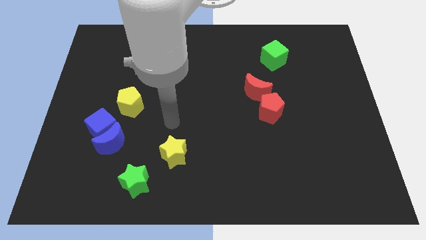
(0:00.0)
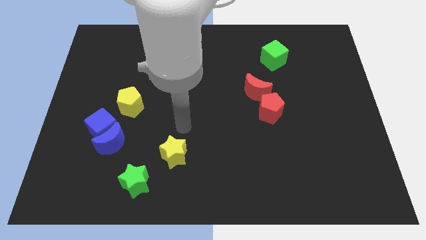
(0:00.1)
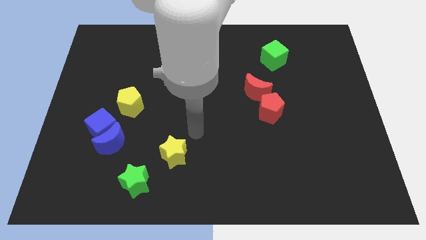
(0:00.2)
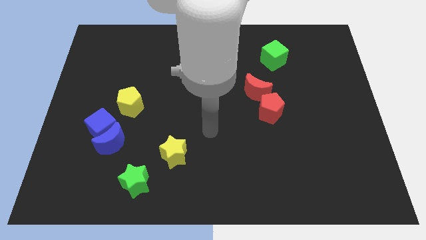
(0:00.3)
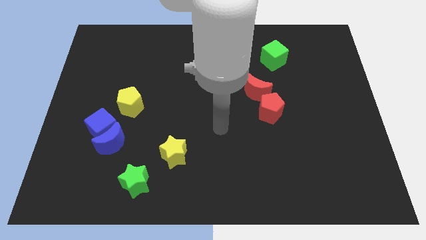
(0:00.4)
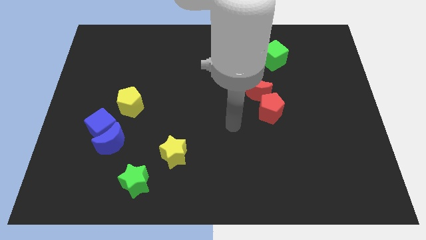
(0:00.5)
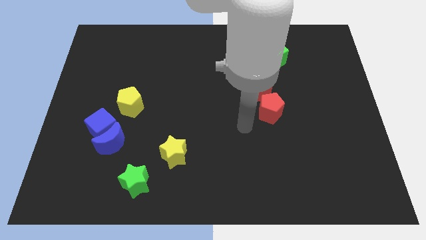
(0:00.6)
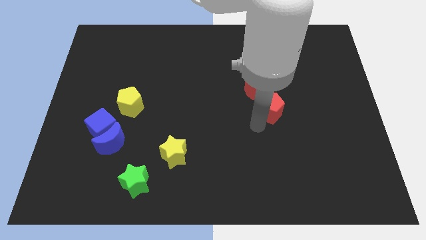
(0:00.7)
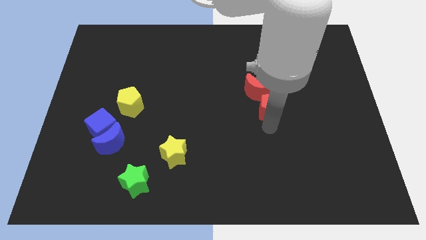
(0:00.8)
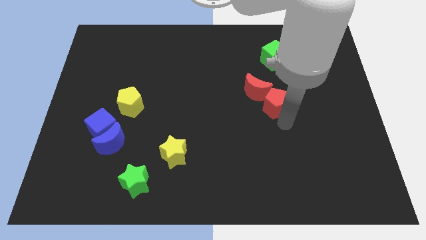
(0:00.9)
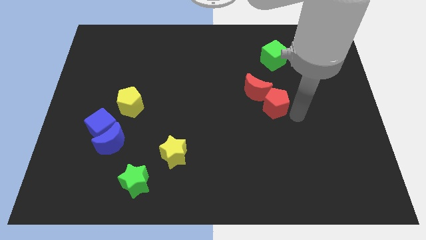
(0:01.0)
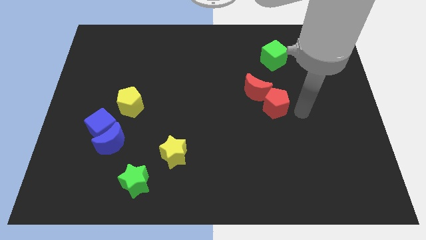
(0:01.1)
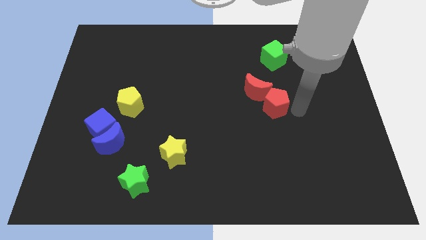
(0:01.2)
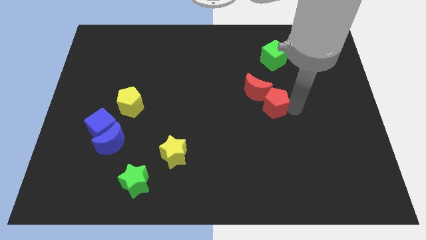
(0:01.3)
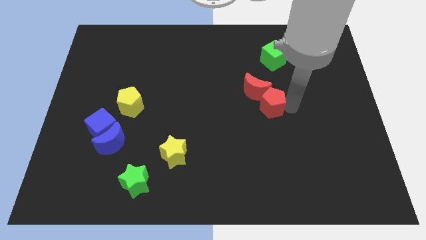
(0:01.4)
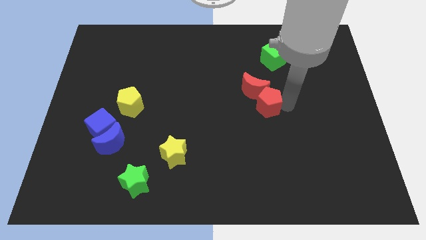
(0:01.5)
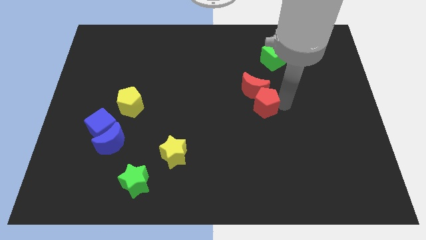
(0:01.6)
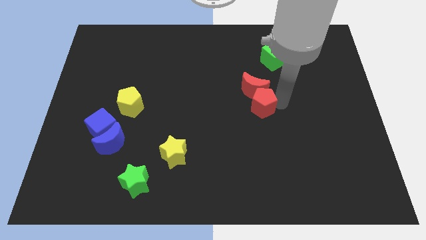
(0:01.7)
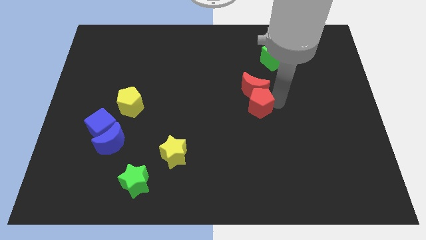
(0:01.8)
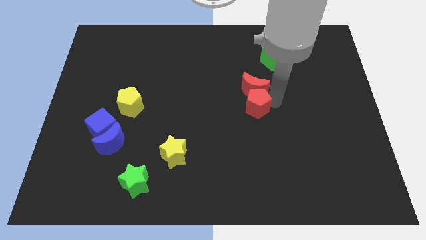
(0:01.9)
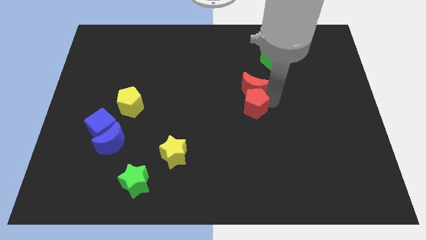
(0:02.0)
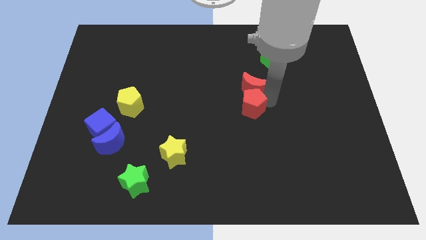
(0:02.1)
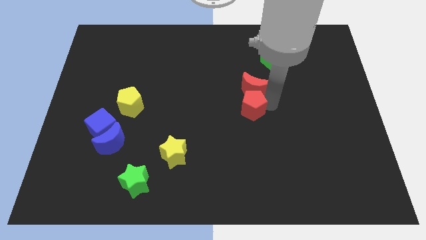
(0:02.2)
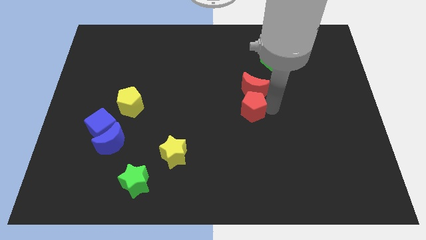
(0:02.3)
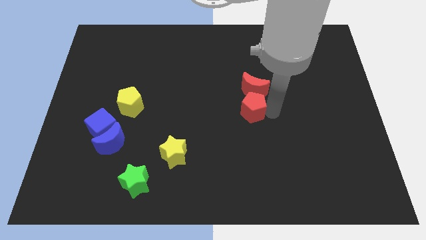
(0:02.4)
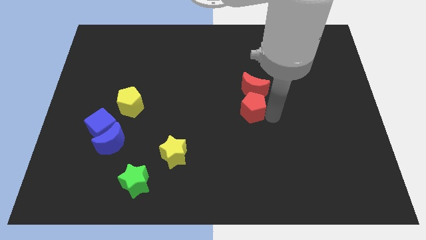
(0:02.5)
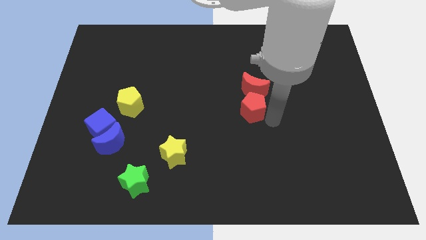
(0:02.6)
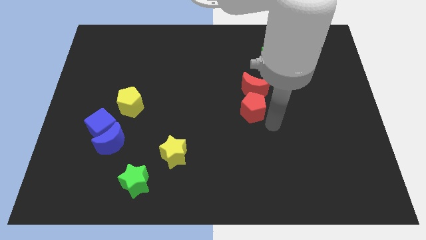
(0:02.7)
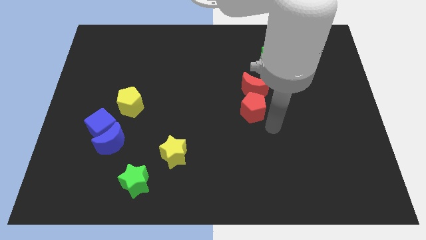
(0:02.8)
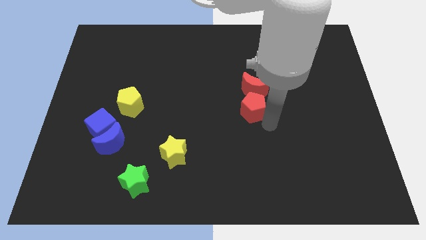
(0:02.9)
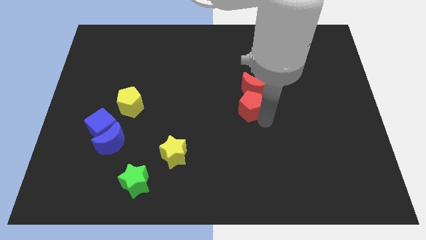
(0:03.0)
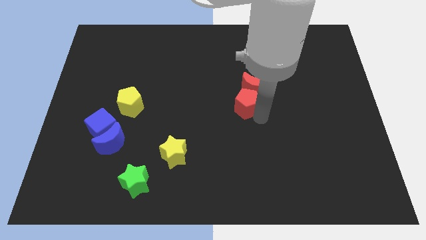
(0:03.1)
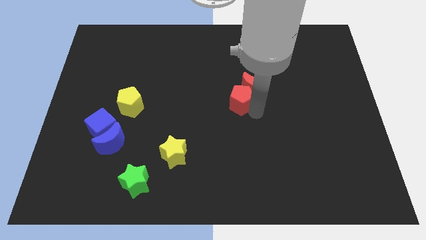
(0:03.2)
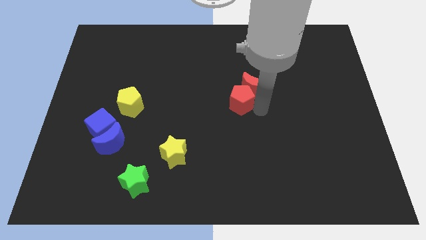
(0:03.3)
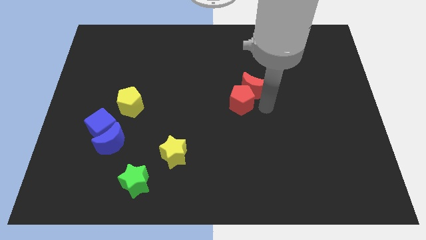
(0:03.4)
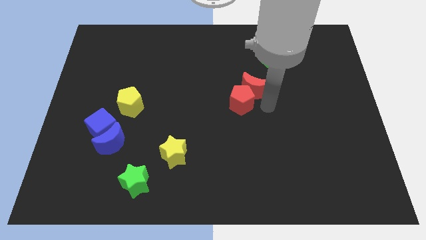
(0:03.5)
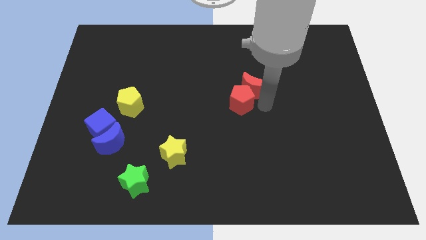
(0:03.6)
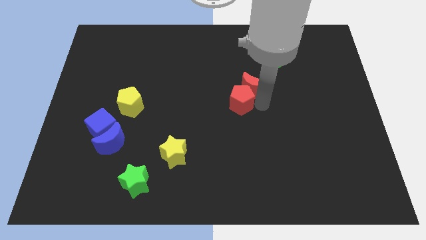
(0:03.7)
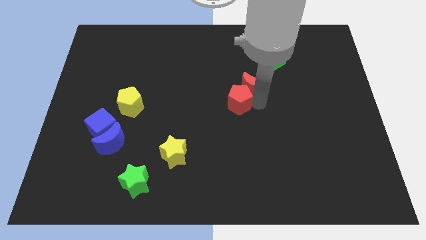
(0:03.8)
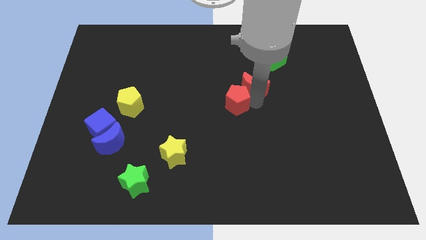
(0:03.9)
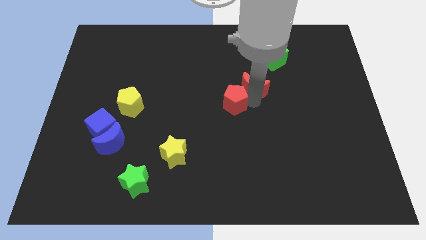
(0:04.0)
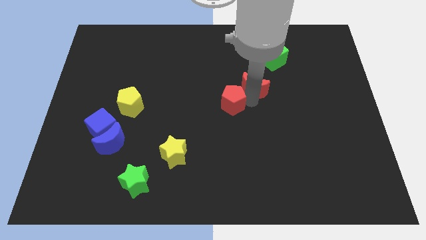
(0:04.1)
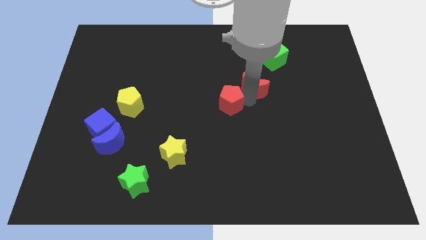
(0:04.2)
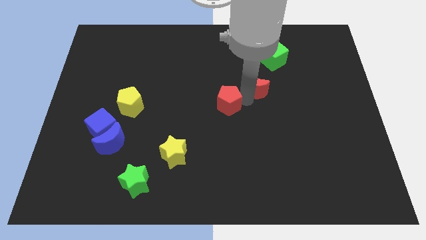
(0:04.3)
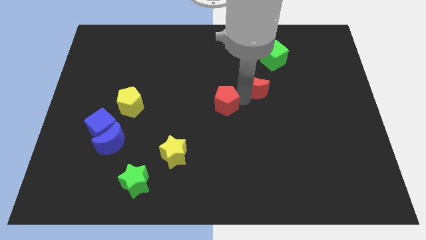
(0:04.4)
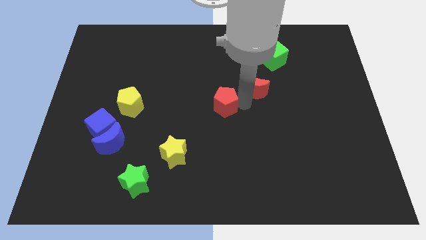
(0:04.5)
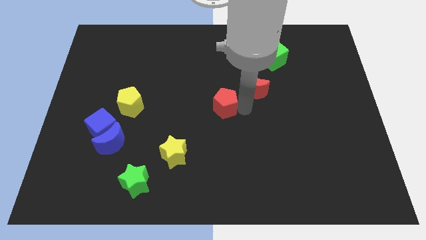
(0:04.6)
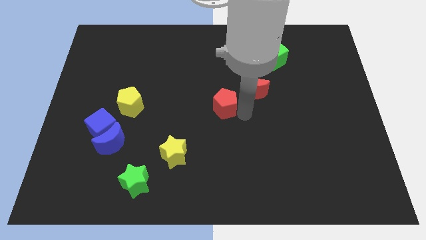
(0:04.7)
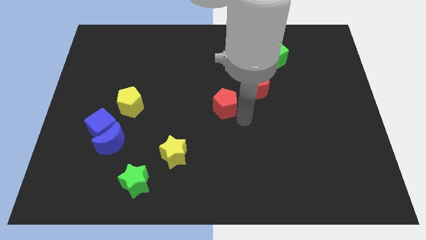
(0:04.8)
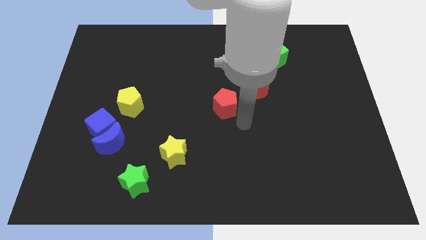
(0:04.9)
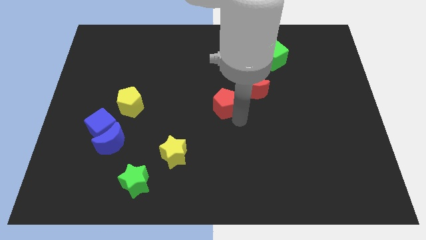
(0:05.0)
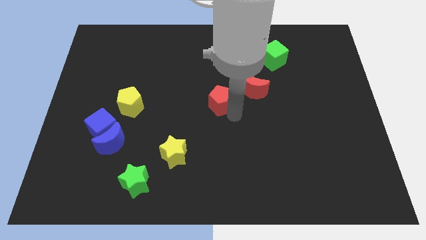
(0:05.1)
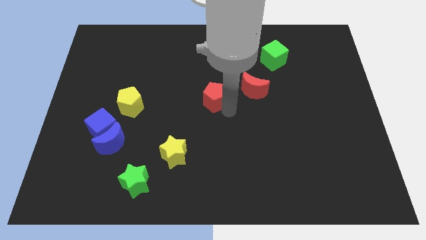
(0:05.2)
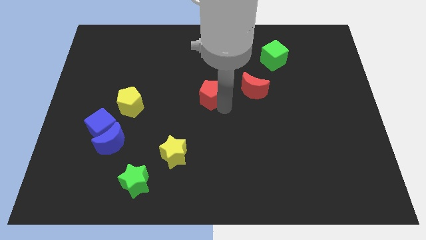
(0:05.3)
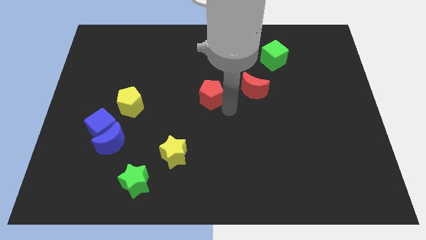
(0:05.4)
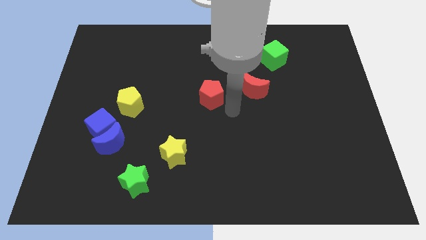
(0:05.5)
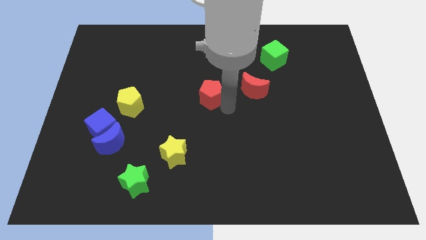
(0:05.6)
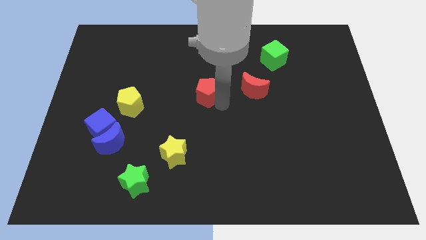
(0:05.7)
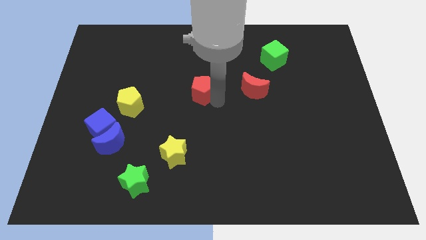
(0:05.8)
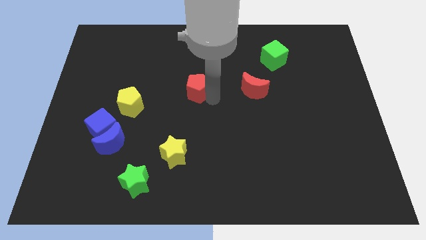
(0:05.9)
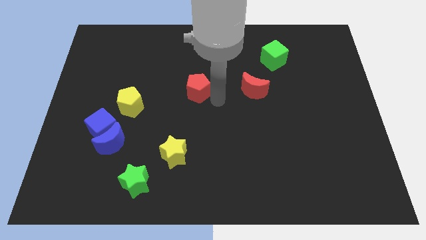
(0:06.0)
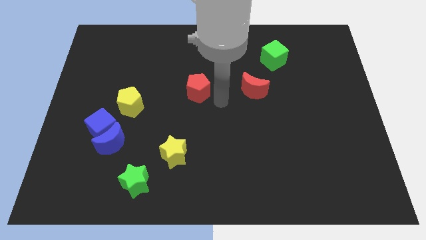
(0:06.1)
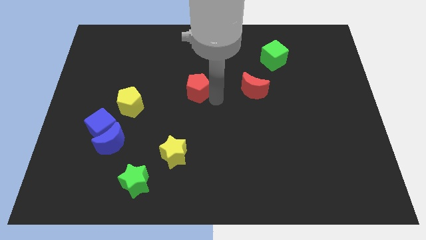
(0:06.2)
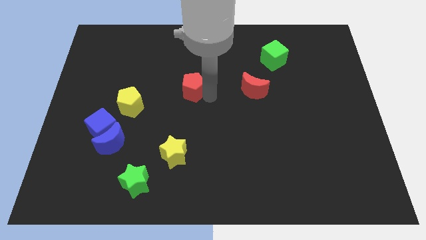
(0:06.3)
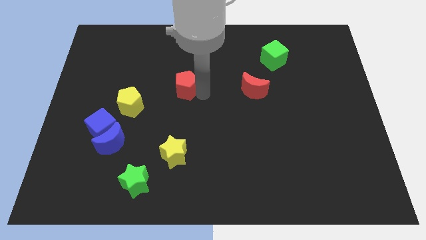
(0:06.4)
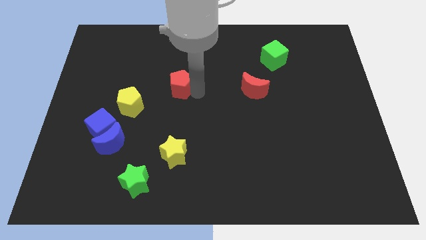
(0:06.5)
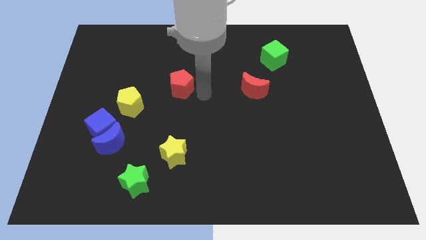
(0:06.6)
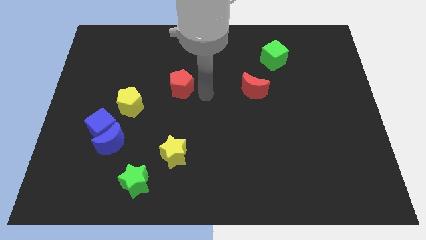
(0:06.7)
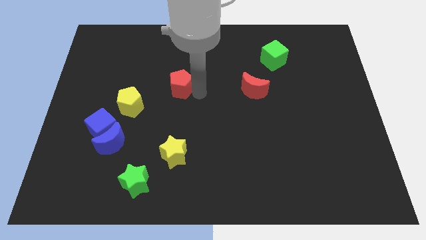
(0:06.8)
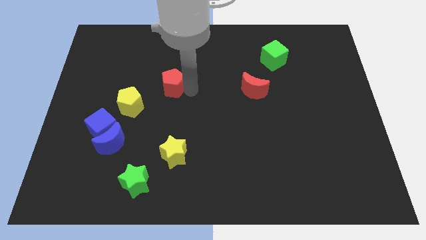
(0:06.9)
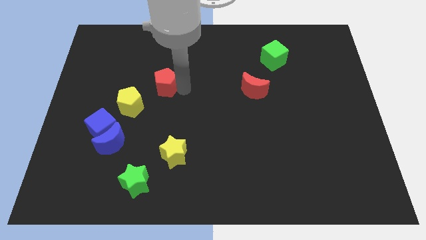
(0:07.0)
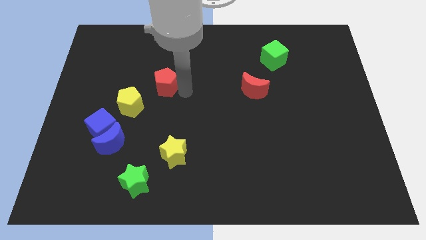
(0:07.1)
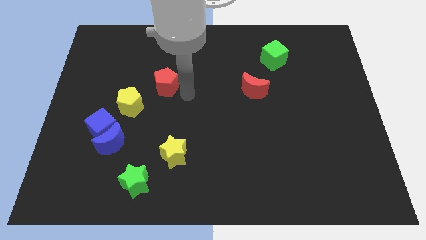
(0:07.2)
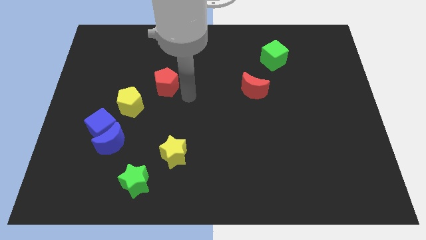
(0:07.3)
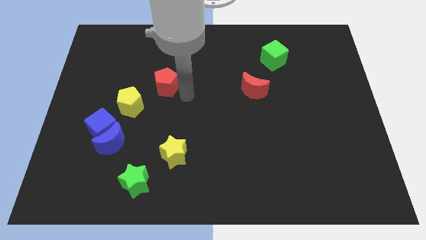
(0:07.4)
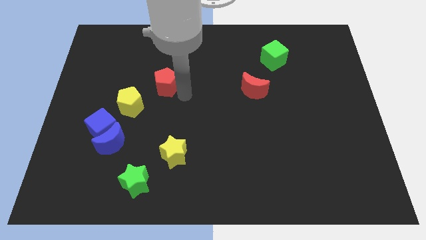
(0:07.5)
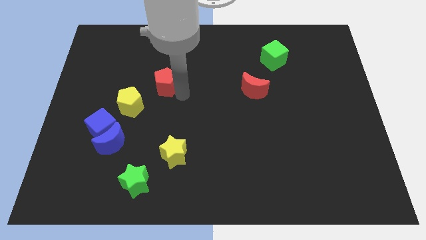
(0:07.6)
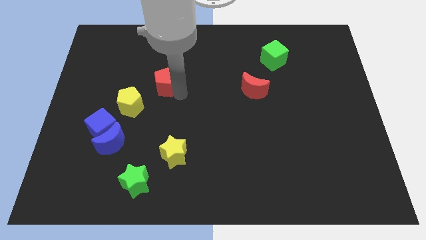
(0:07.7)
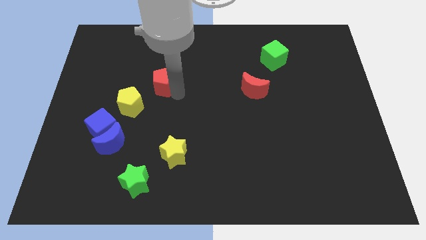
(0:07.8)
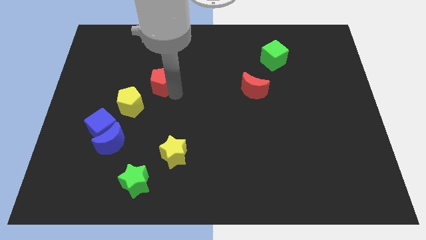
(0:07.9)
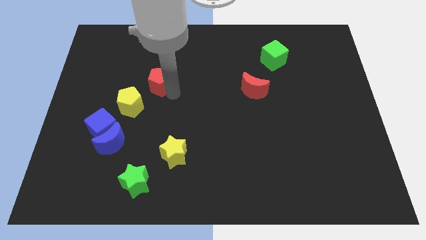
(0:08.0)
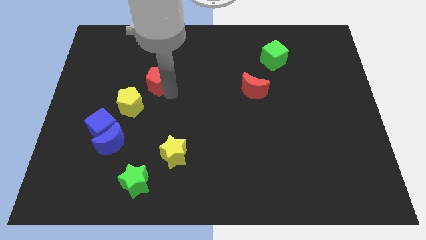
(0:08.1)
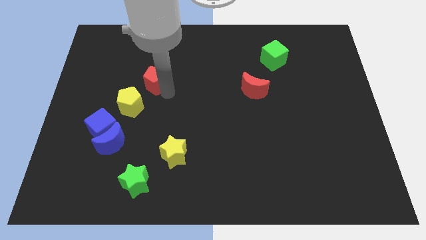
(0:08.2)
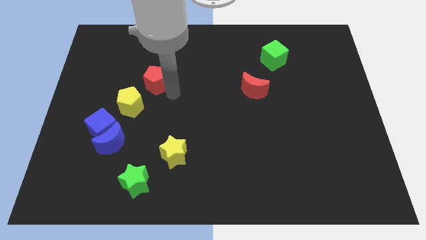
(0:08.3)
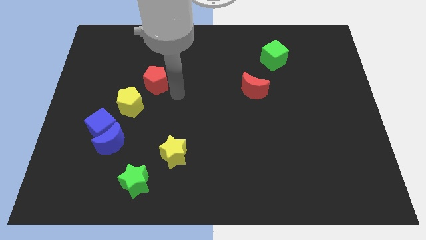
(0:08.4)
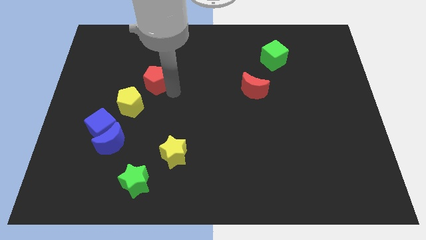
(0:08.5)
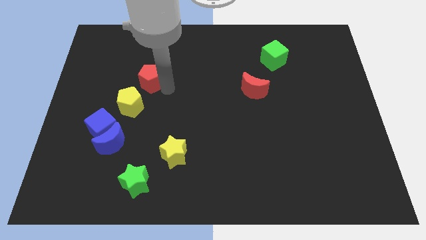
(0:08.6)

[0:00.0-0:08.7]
push the red pentagon to the top side of the yellow pentagon
